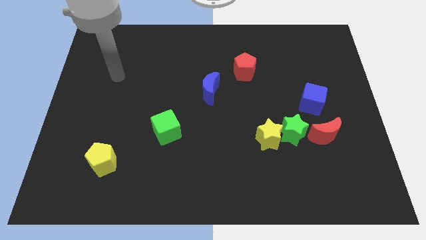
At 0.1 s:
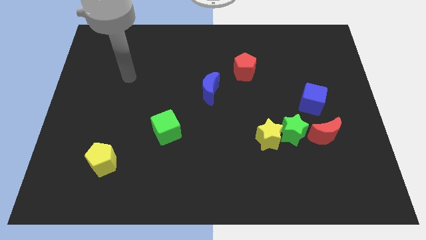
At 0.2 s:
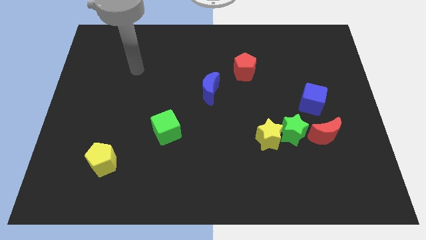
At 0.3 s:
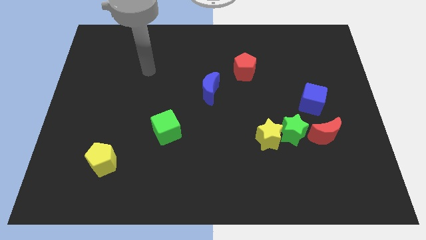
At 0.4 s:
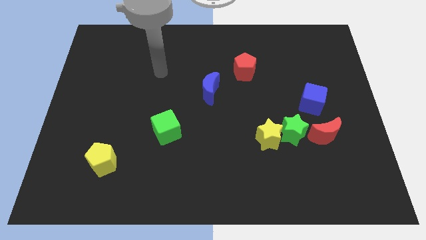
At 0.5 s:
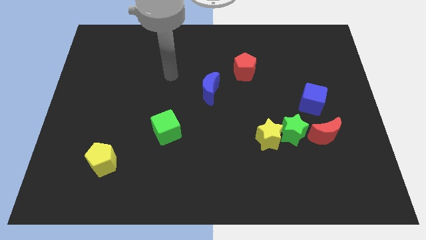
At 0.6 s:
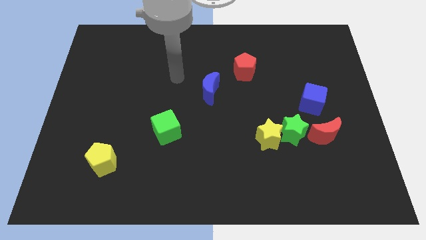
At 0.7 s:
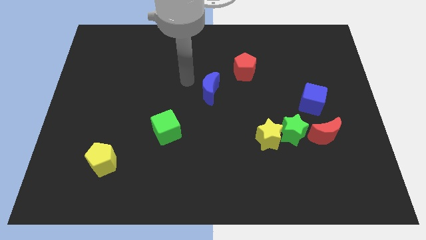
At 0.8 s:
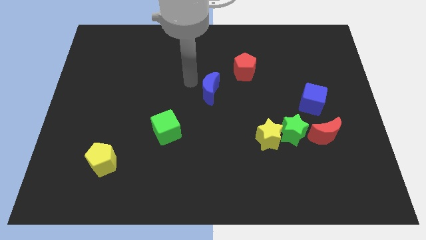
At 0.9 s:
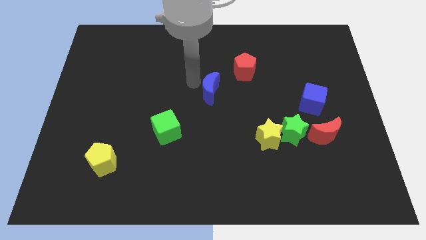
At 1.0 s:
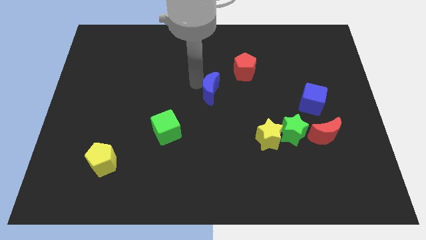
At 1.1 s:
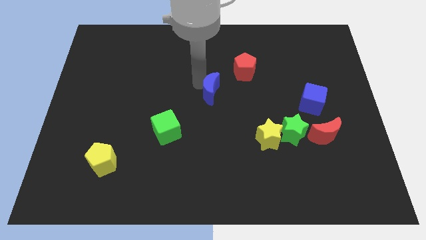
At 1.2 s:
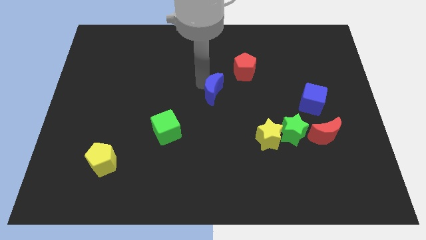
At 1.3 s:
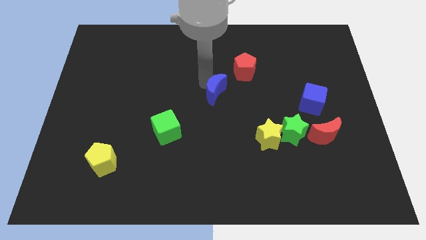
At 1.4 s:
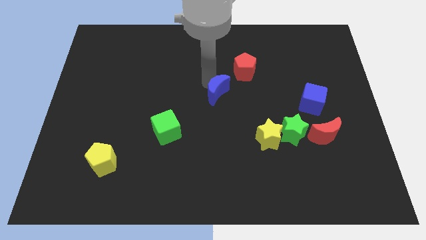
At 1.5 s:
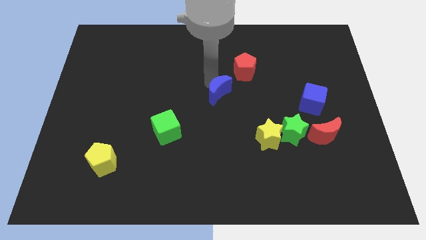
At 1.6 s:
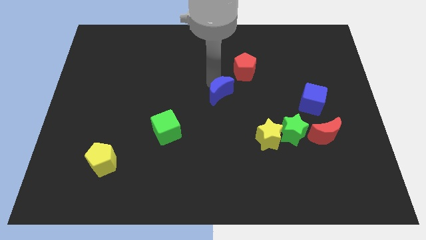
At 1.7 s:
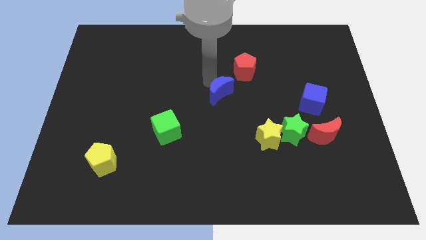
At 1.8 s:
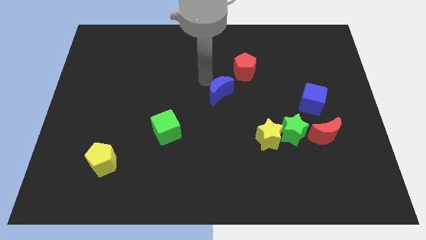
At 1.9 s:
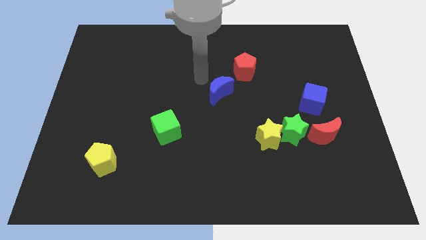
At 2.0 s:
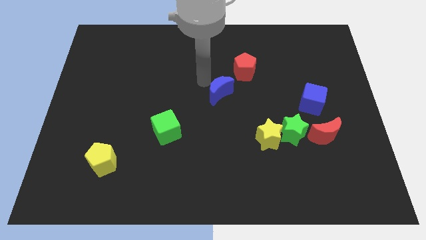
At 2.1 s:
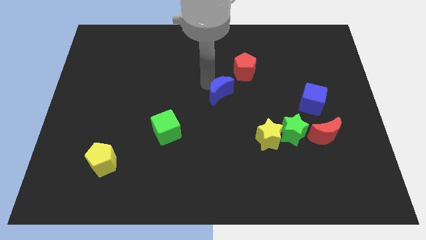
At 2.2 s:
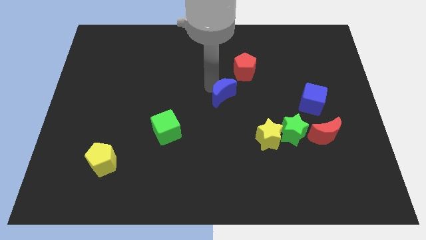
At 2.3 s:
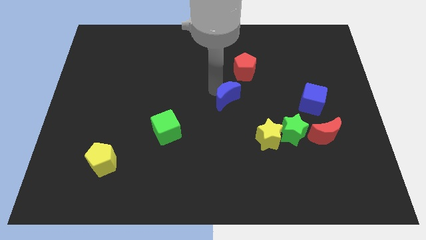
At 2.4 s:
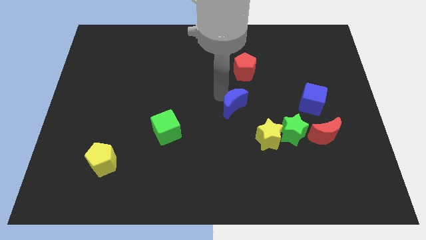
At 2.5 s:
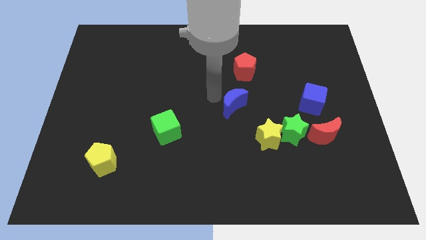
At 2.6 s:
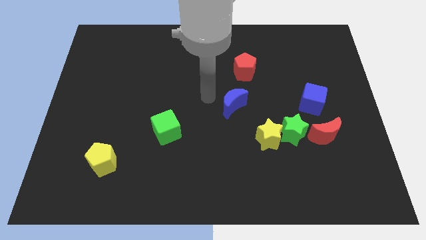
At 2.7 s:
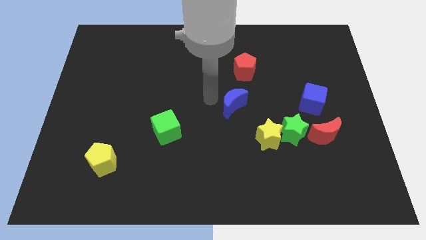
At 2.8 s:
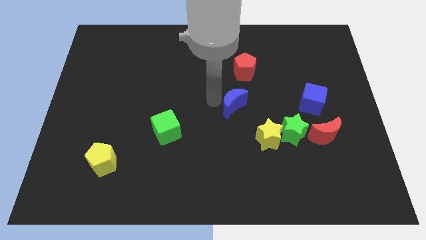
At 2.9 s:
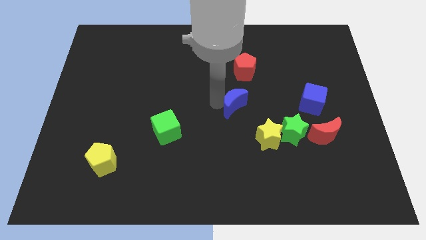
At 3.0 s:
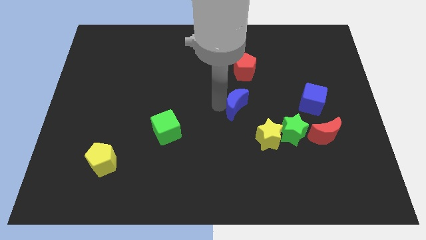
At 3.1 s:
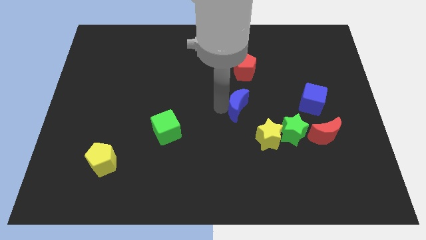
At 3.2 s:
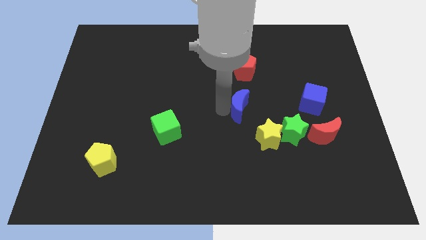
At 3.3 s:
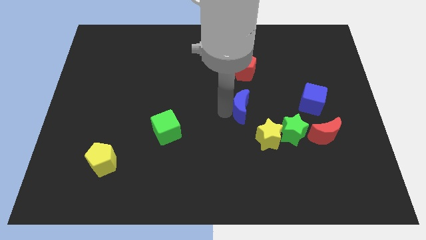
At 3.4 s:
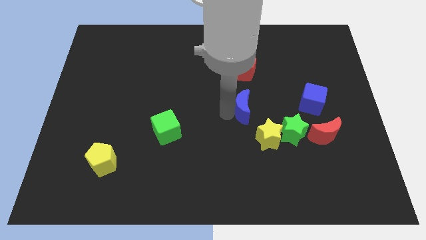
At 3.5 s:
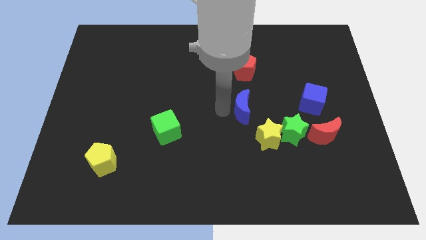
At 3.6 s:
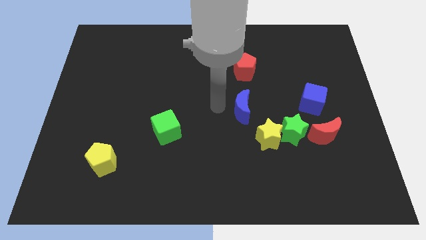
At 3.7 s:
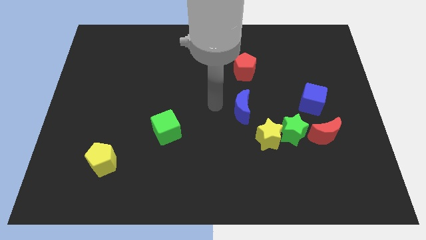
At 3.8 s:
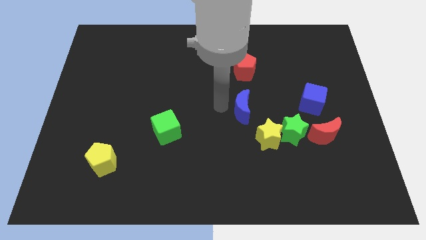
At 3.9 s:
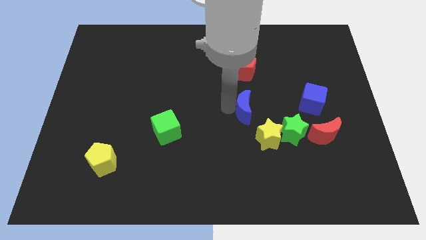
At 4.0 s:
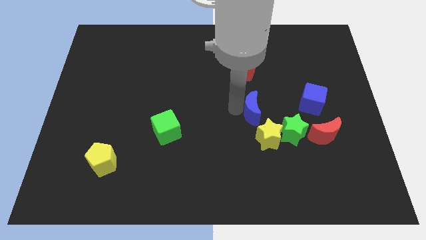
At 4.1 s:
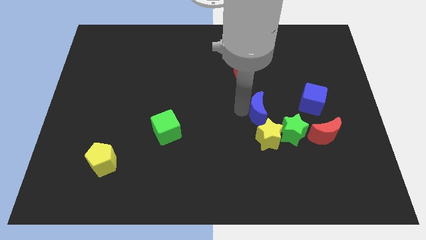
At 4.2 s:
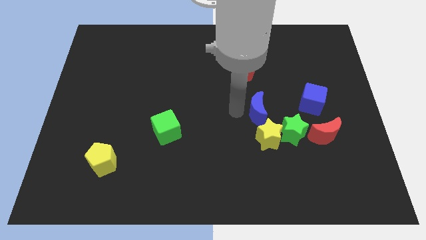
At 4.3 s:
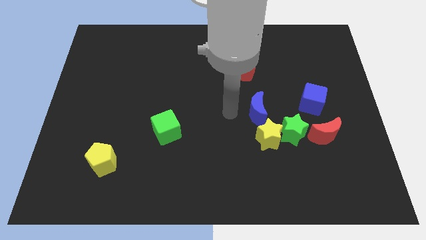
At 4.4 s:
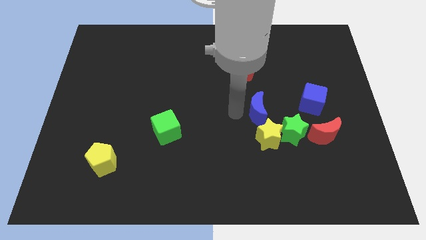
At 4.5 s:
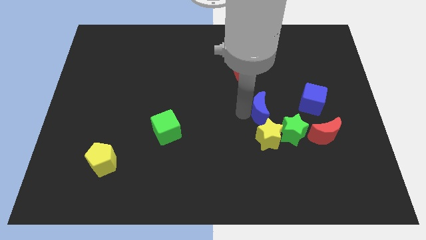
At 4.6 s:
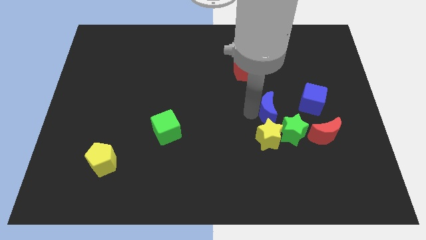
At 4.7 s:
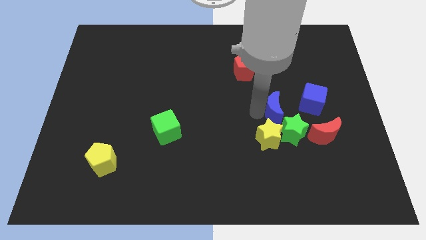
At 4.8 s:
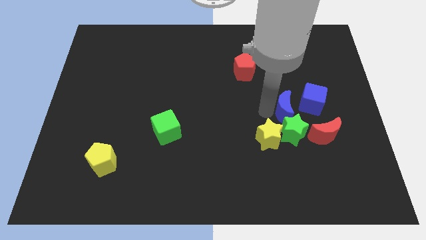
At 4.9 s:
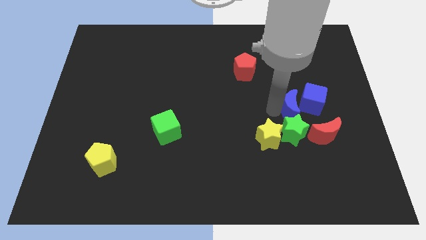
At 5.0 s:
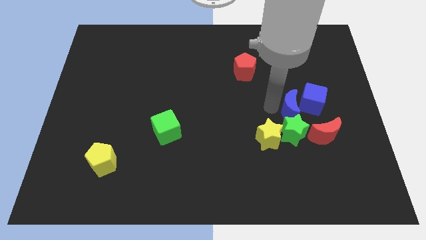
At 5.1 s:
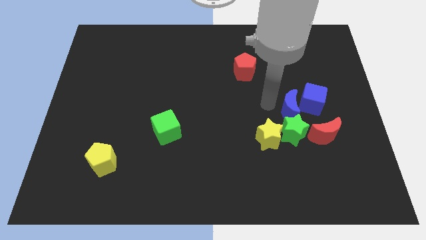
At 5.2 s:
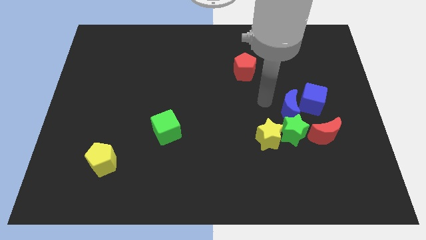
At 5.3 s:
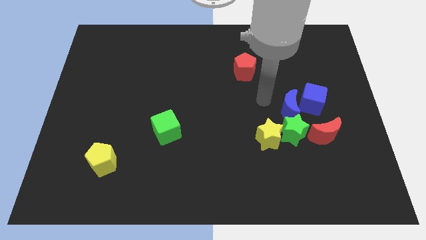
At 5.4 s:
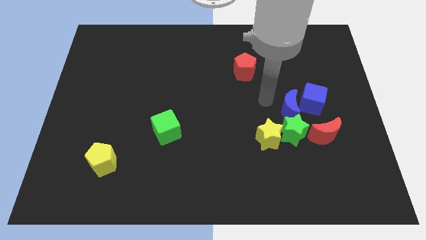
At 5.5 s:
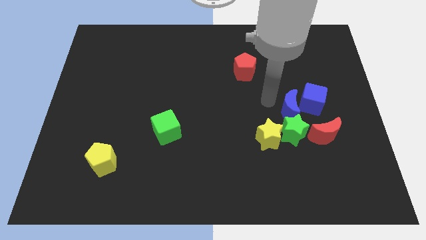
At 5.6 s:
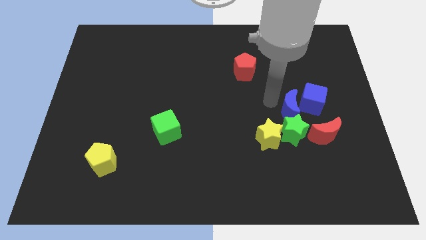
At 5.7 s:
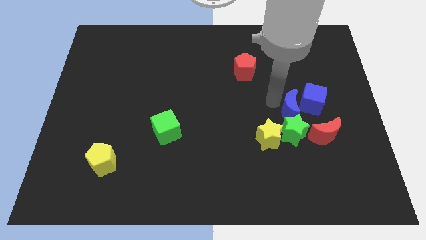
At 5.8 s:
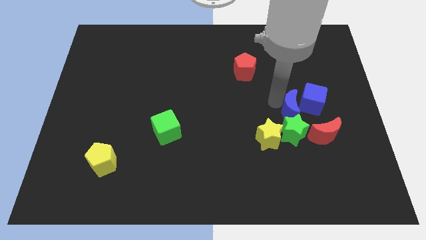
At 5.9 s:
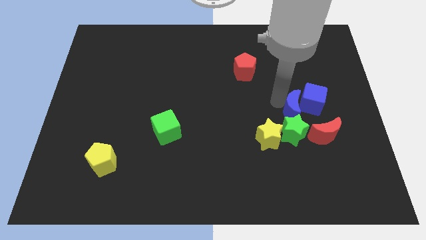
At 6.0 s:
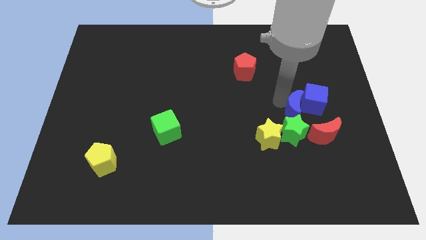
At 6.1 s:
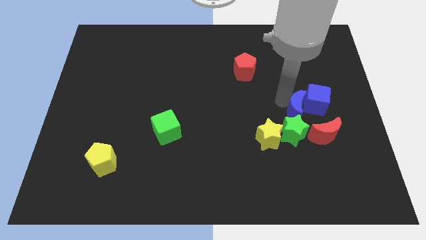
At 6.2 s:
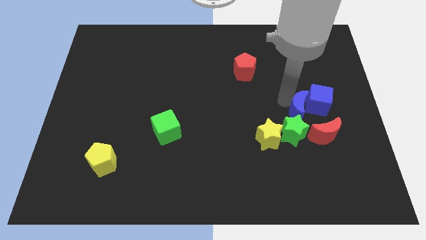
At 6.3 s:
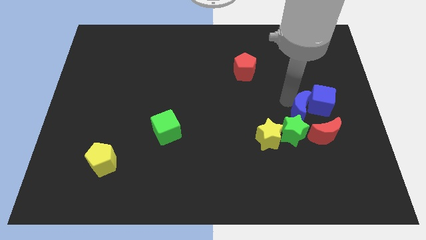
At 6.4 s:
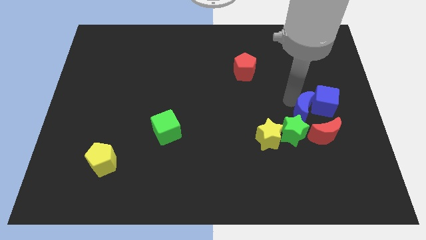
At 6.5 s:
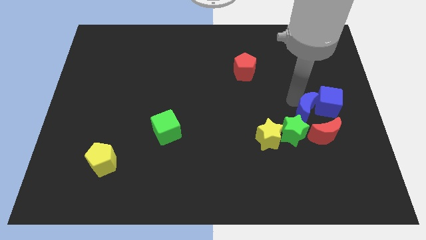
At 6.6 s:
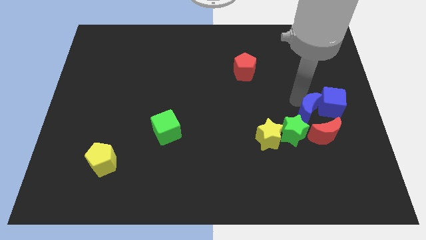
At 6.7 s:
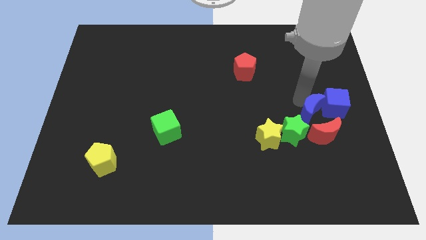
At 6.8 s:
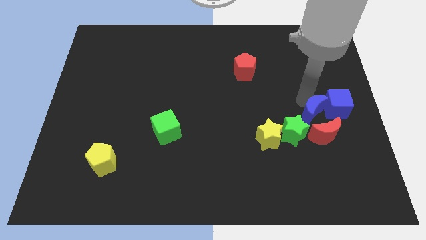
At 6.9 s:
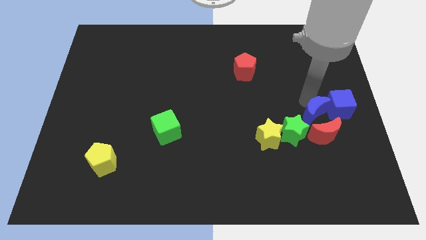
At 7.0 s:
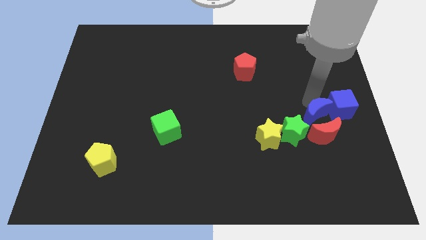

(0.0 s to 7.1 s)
put the blue moon to the red moon
